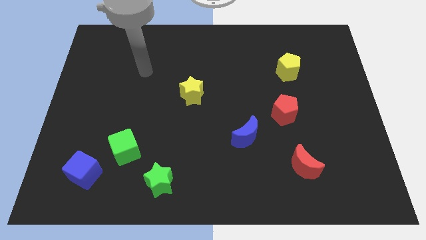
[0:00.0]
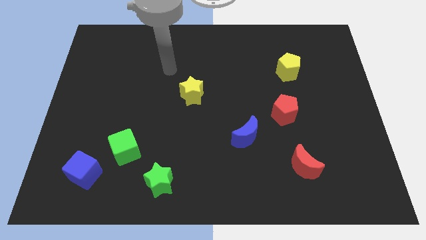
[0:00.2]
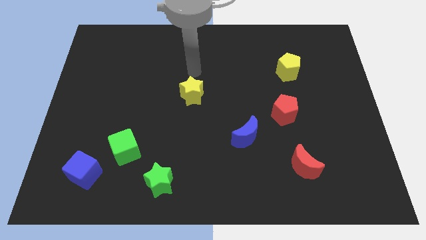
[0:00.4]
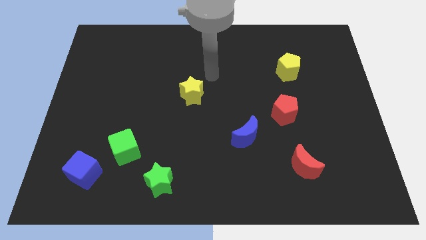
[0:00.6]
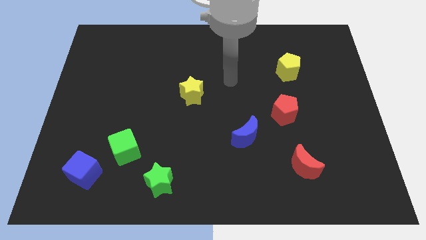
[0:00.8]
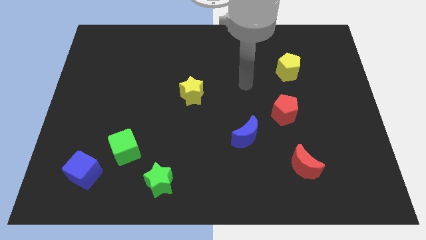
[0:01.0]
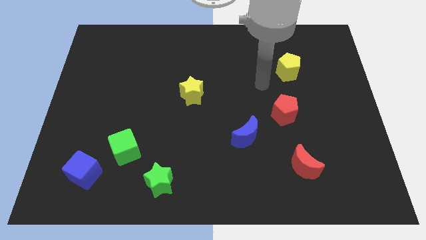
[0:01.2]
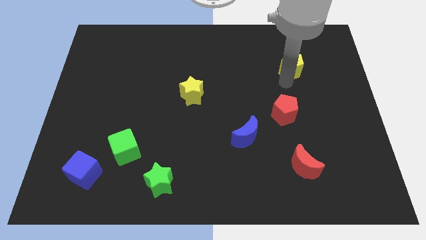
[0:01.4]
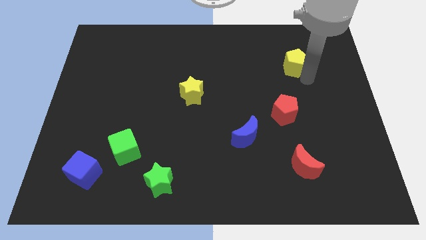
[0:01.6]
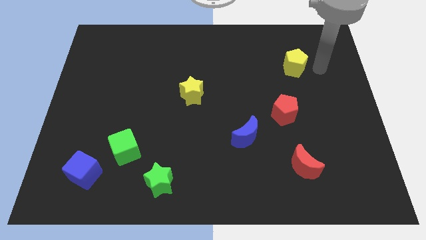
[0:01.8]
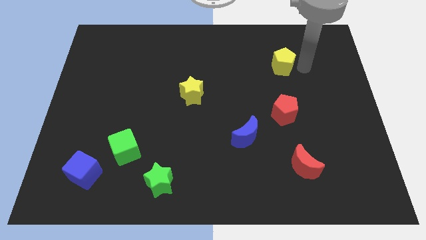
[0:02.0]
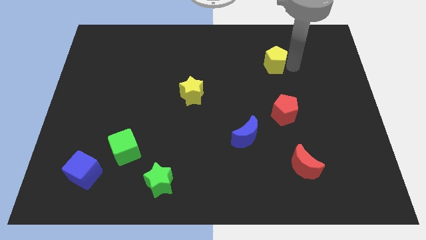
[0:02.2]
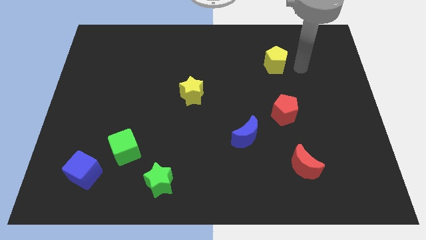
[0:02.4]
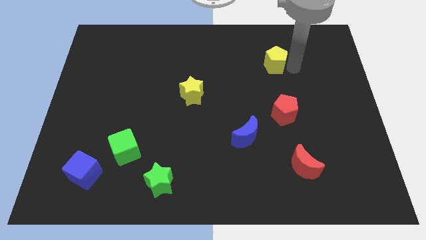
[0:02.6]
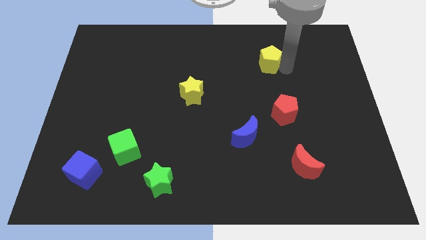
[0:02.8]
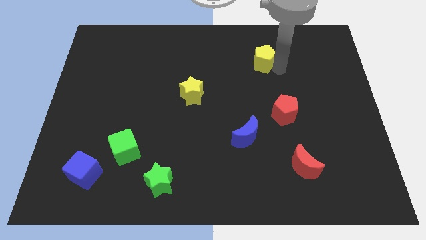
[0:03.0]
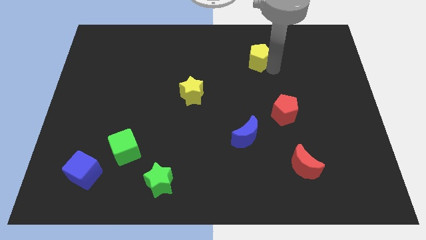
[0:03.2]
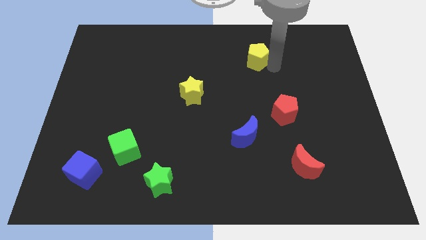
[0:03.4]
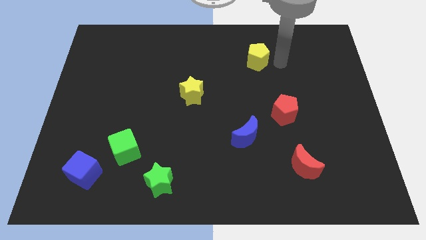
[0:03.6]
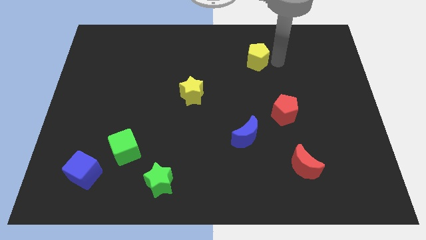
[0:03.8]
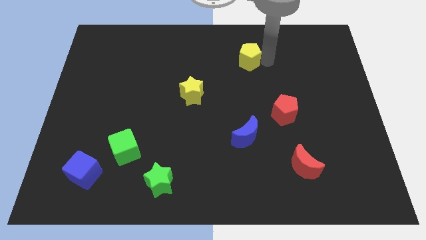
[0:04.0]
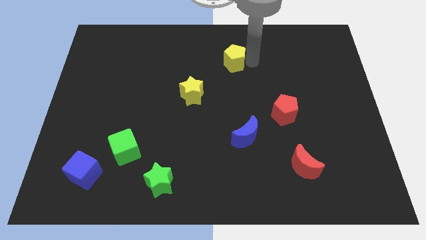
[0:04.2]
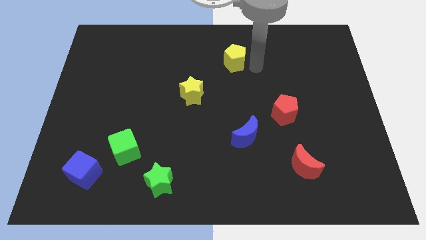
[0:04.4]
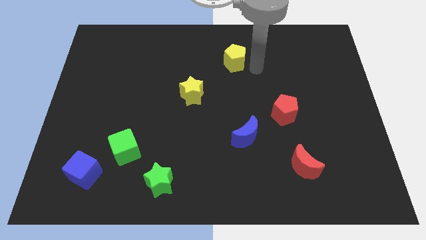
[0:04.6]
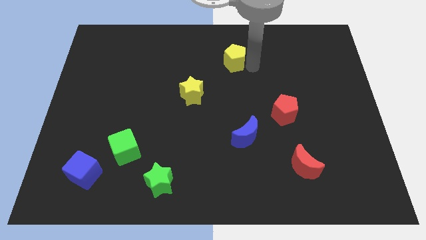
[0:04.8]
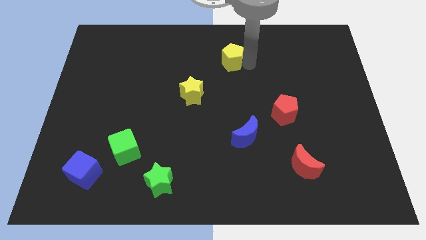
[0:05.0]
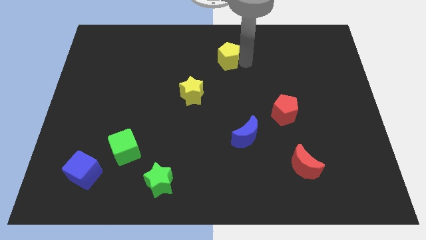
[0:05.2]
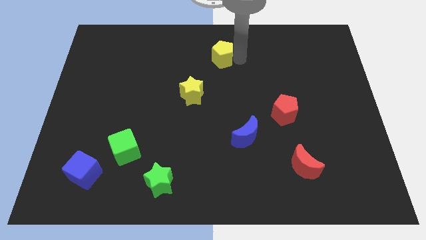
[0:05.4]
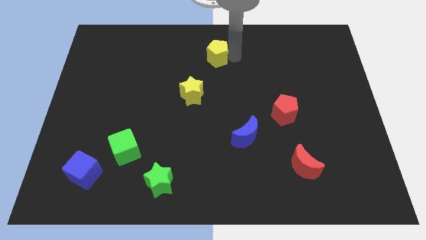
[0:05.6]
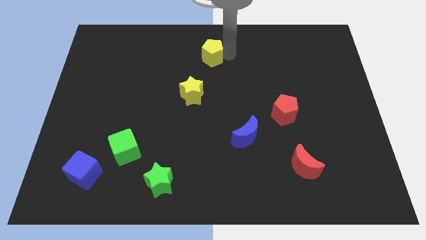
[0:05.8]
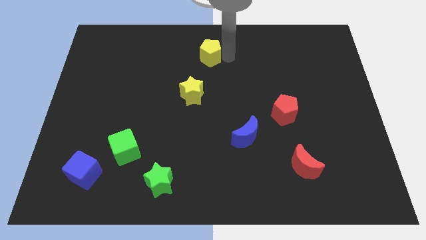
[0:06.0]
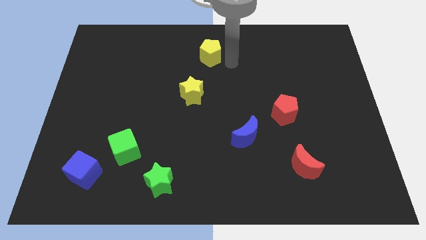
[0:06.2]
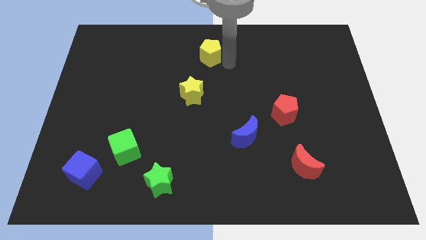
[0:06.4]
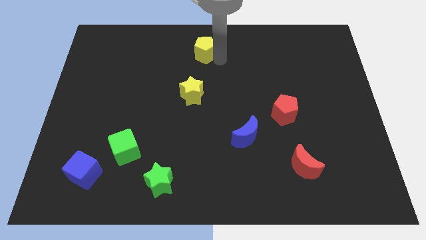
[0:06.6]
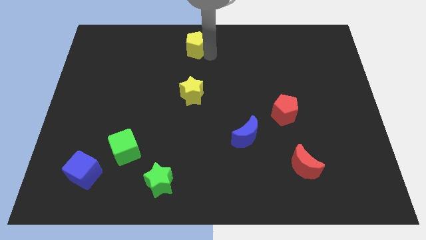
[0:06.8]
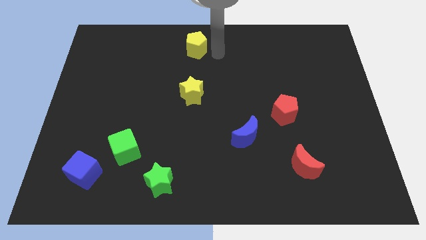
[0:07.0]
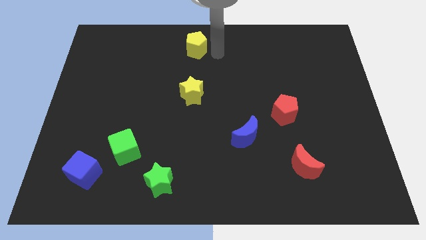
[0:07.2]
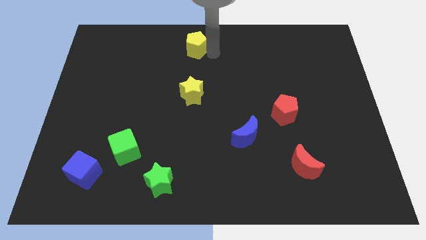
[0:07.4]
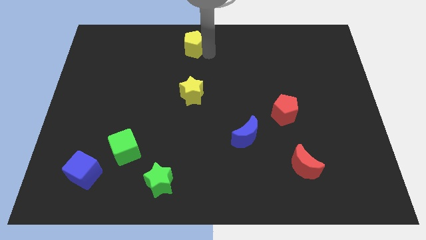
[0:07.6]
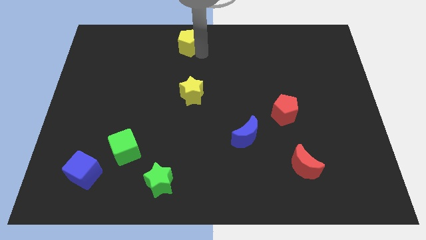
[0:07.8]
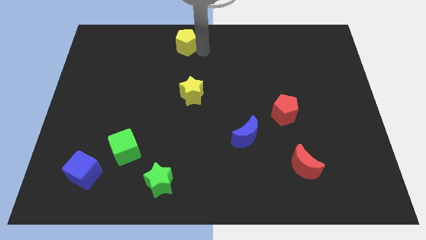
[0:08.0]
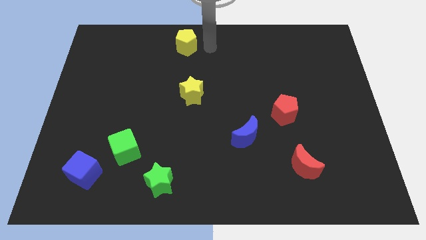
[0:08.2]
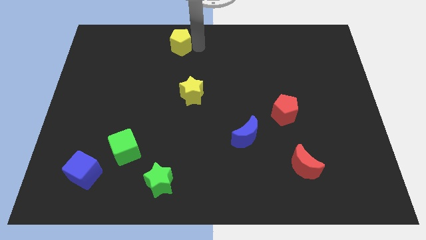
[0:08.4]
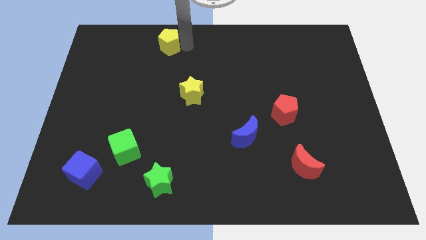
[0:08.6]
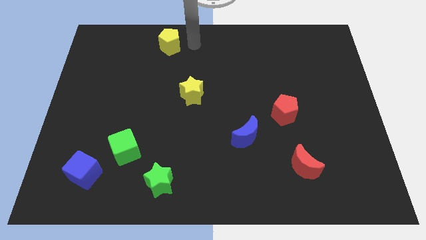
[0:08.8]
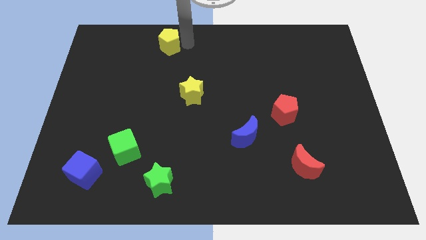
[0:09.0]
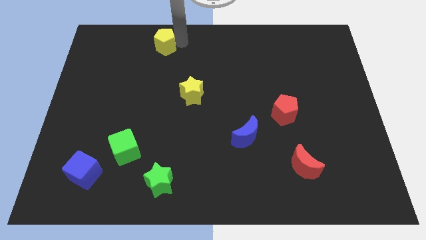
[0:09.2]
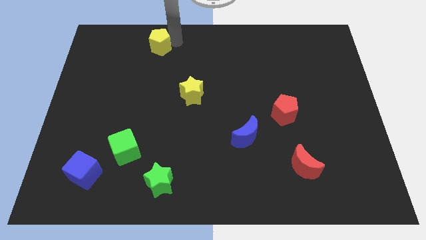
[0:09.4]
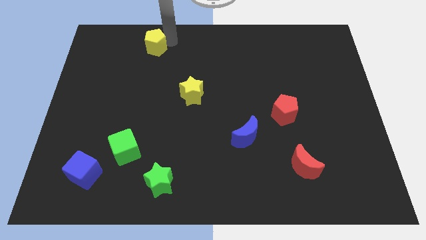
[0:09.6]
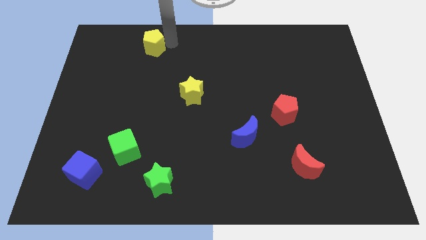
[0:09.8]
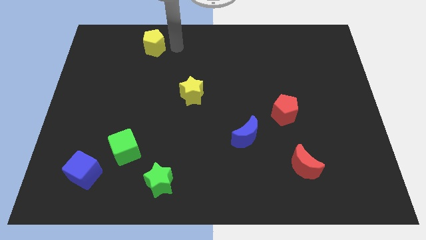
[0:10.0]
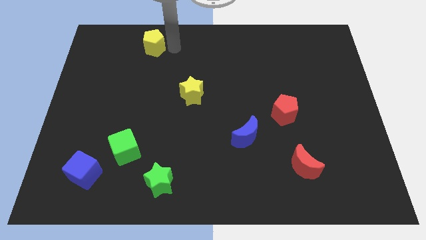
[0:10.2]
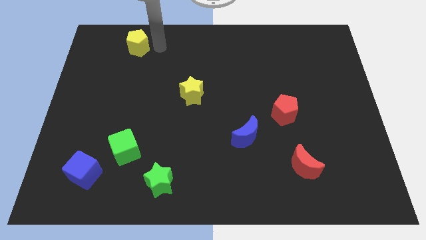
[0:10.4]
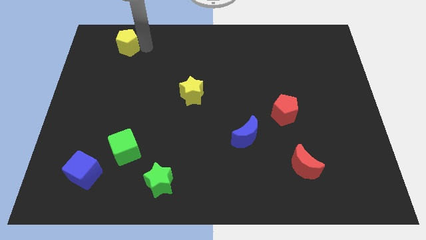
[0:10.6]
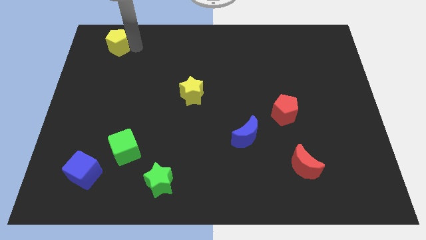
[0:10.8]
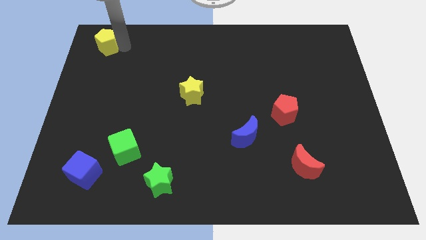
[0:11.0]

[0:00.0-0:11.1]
move the yellow pentagon to the top left

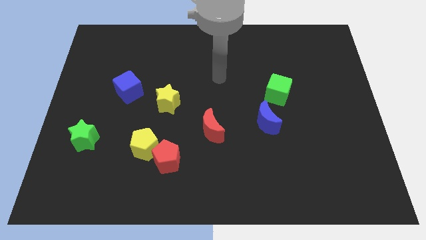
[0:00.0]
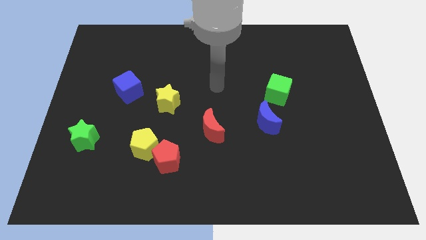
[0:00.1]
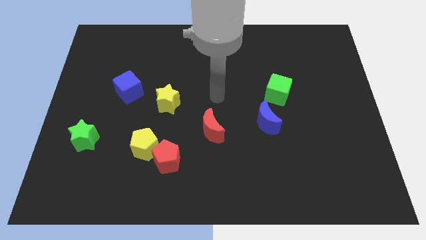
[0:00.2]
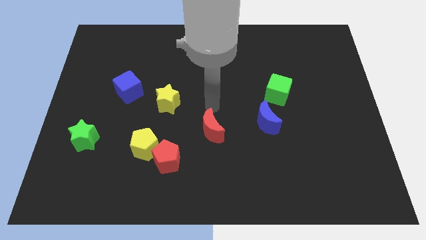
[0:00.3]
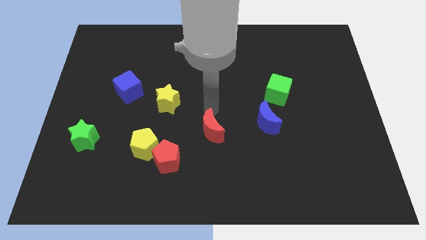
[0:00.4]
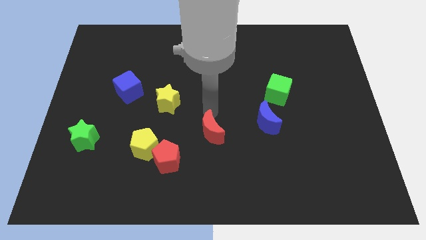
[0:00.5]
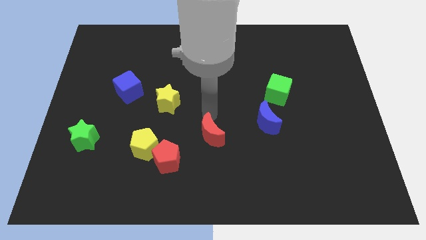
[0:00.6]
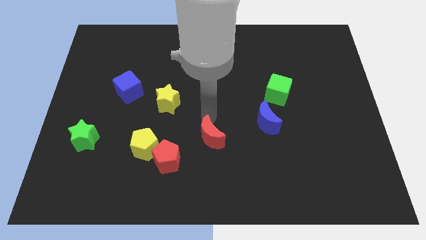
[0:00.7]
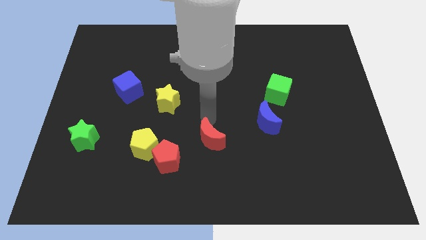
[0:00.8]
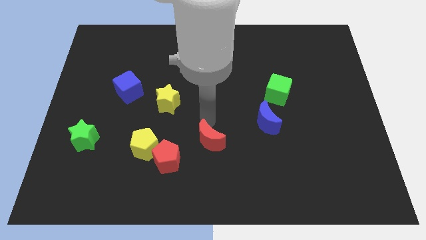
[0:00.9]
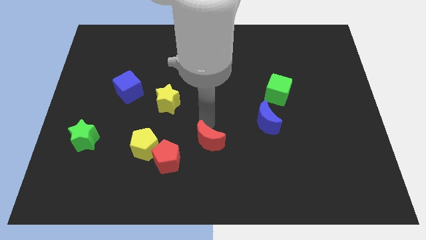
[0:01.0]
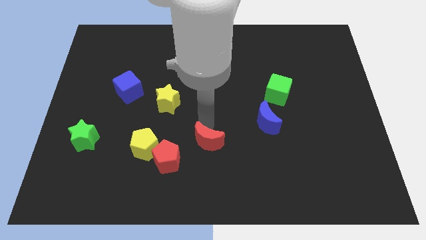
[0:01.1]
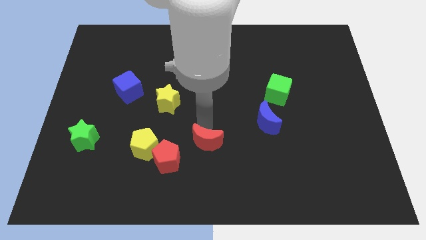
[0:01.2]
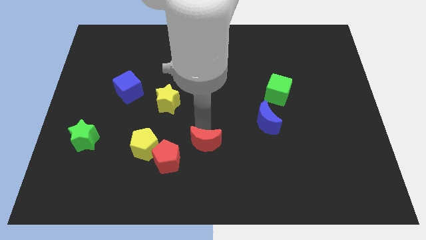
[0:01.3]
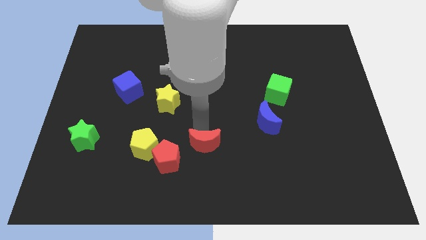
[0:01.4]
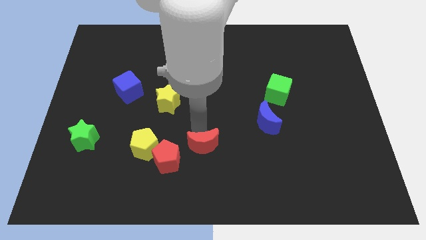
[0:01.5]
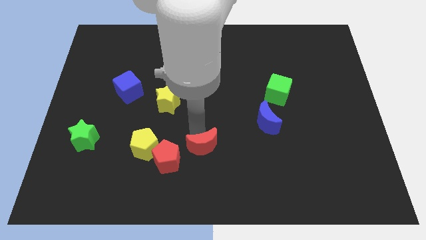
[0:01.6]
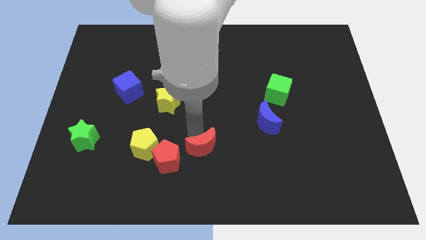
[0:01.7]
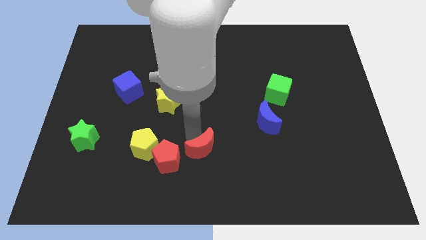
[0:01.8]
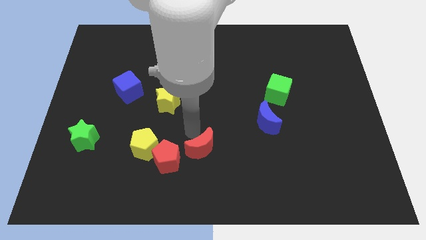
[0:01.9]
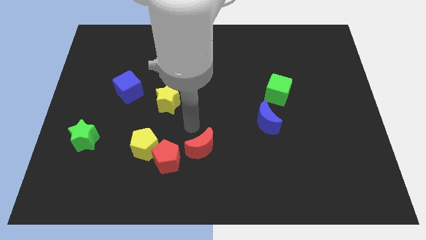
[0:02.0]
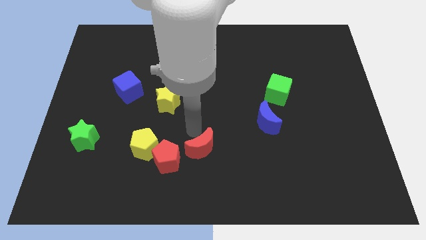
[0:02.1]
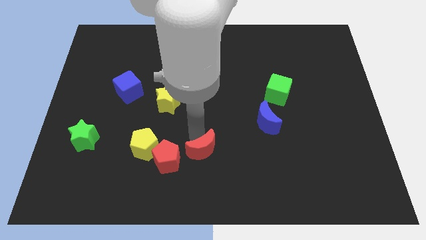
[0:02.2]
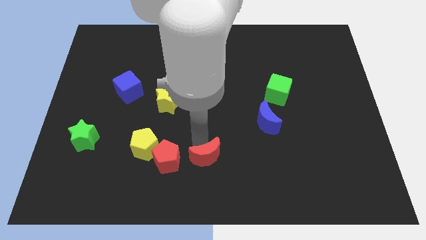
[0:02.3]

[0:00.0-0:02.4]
slide the red moon to the bottom side
